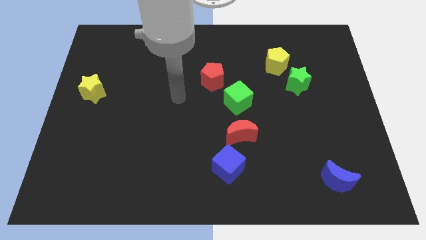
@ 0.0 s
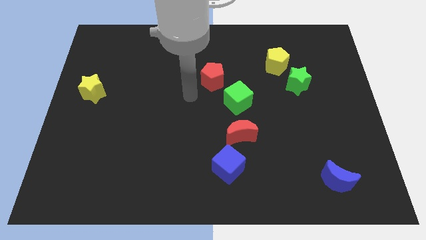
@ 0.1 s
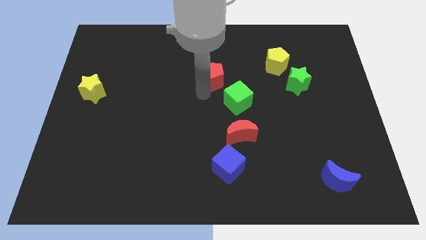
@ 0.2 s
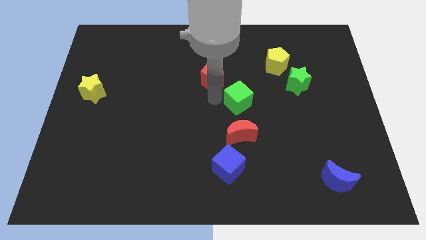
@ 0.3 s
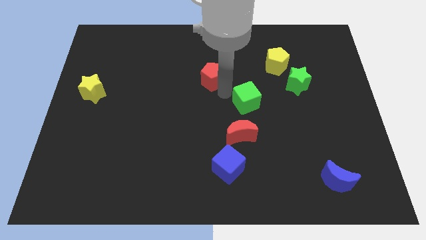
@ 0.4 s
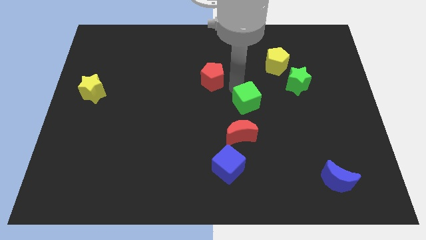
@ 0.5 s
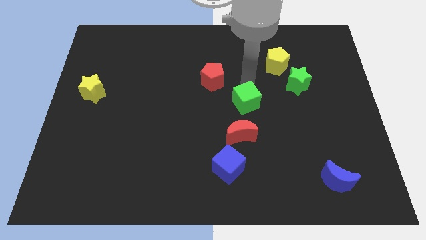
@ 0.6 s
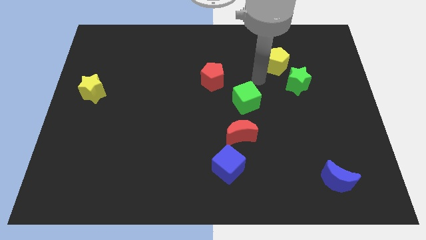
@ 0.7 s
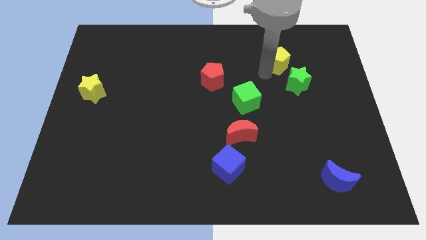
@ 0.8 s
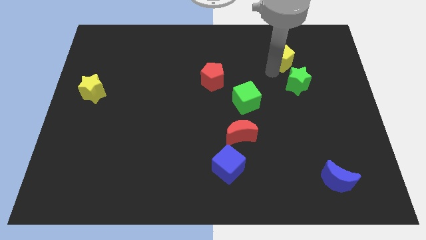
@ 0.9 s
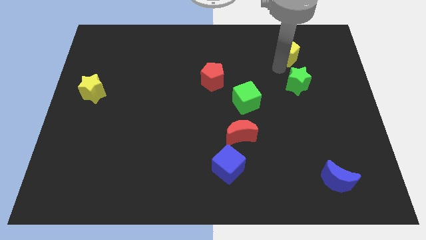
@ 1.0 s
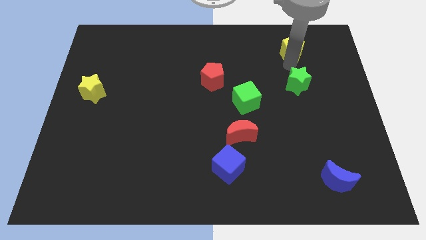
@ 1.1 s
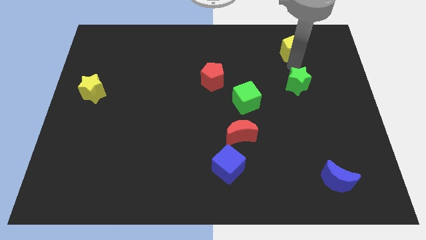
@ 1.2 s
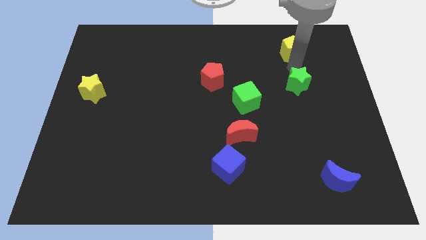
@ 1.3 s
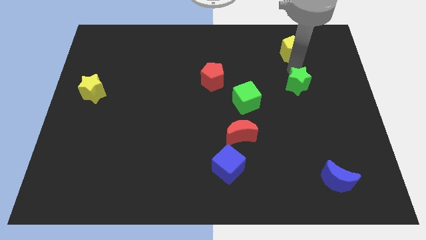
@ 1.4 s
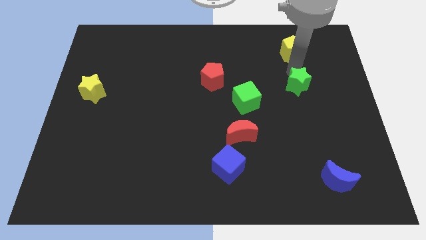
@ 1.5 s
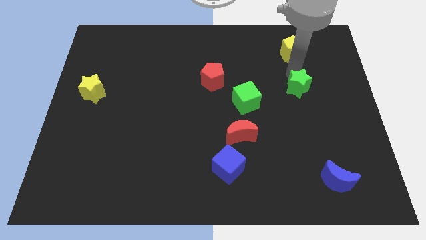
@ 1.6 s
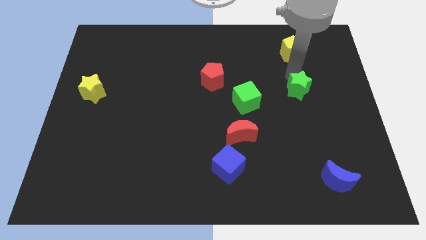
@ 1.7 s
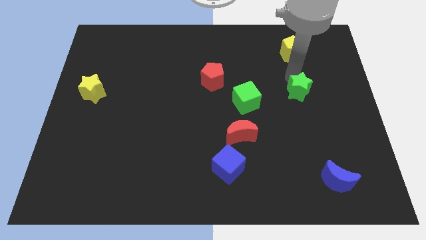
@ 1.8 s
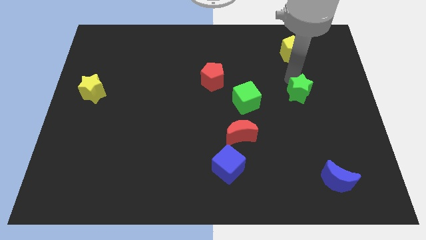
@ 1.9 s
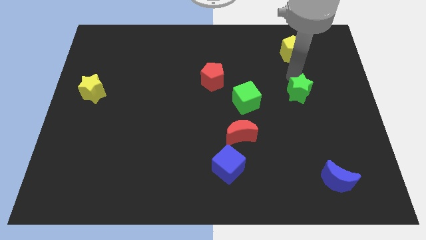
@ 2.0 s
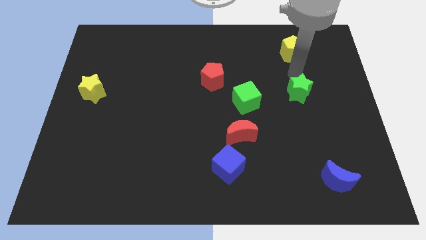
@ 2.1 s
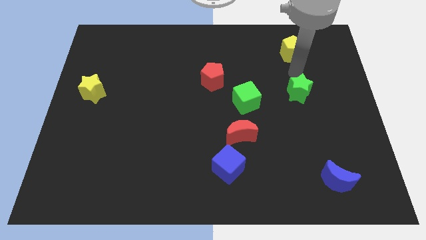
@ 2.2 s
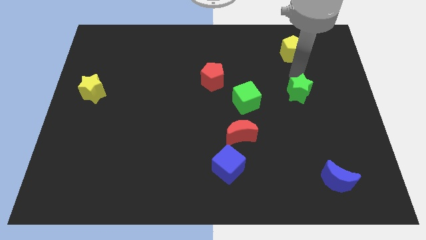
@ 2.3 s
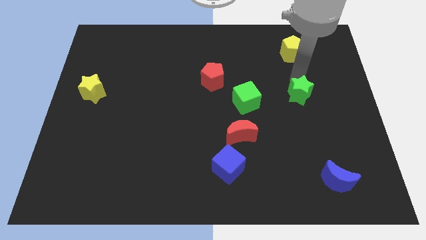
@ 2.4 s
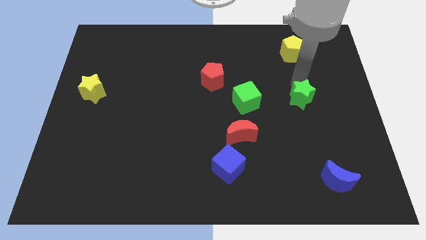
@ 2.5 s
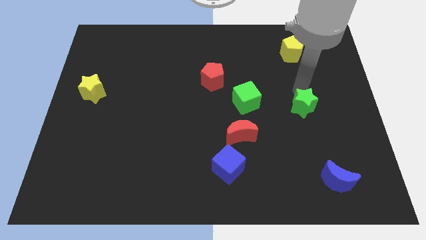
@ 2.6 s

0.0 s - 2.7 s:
slide the green star a little bit down

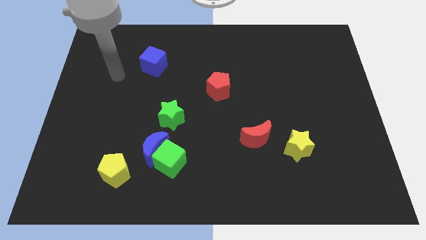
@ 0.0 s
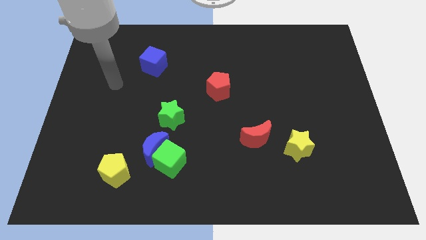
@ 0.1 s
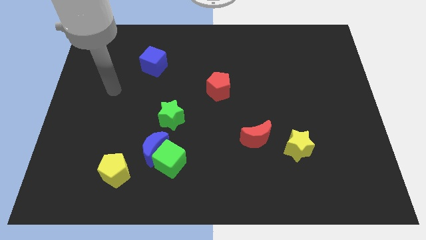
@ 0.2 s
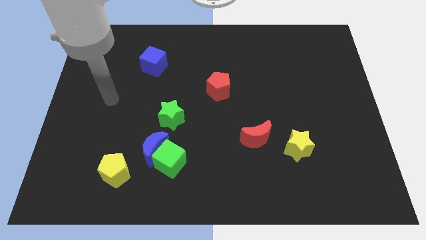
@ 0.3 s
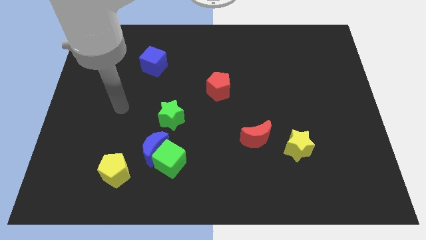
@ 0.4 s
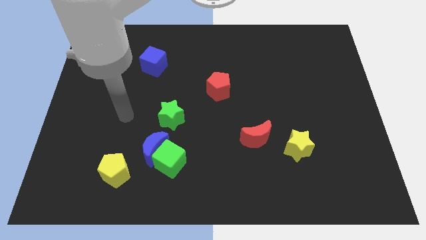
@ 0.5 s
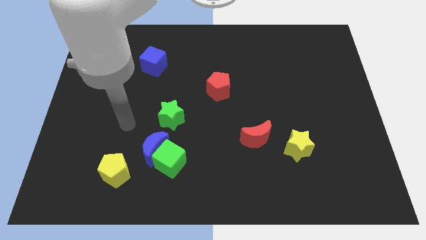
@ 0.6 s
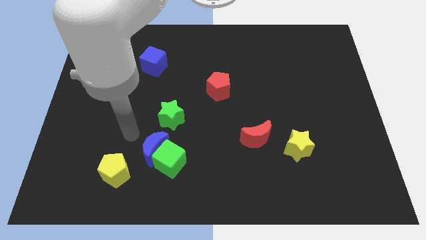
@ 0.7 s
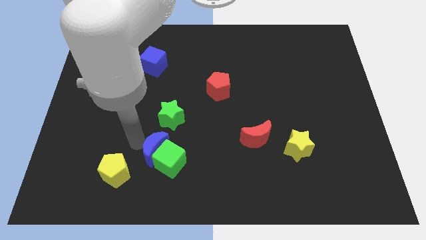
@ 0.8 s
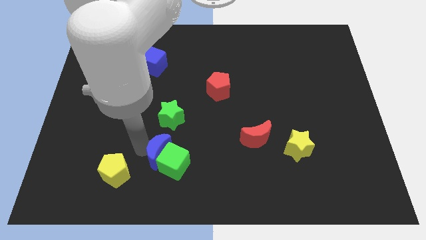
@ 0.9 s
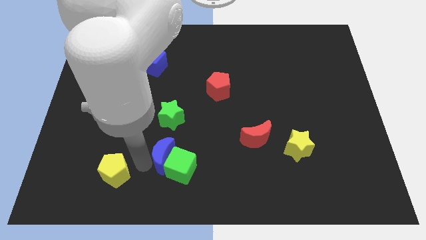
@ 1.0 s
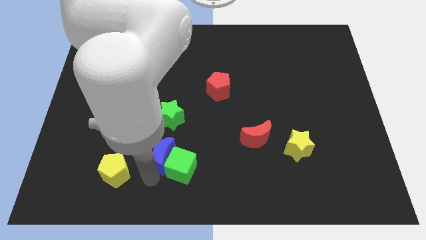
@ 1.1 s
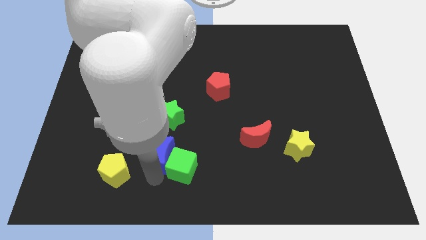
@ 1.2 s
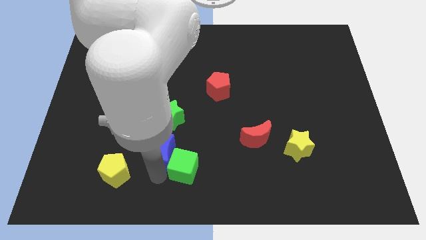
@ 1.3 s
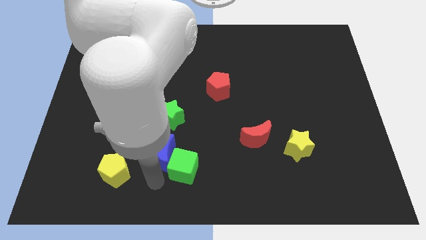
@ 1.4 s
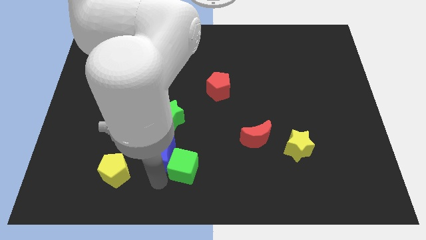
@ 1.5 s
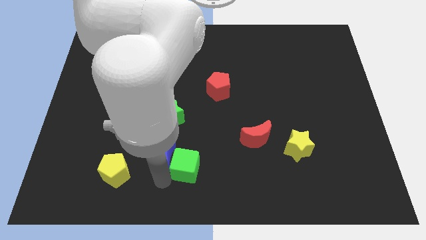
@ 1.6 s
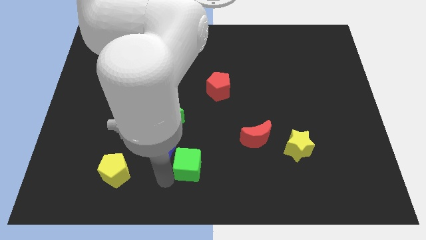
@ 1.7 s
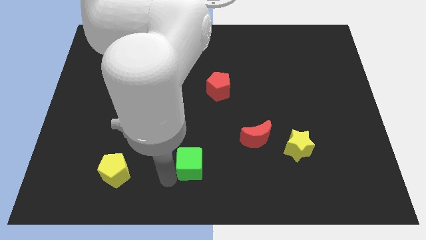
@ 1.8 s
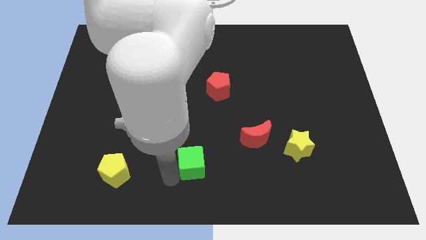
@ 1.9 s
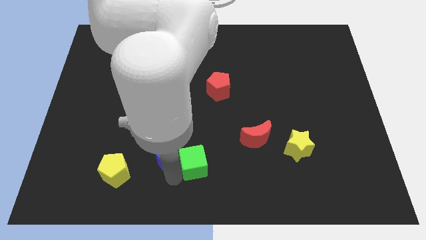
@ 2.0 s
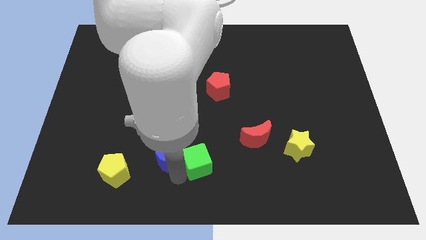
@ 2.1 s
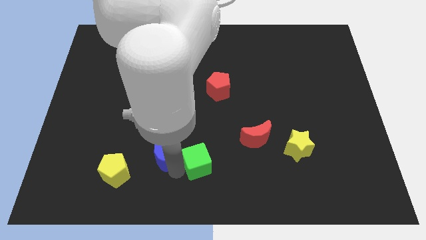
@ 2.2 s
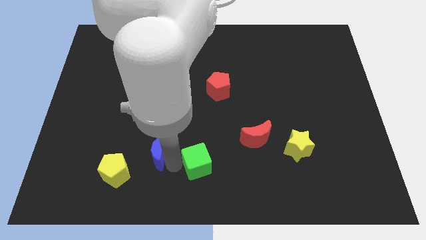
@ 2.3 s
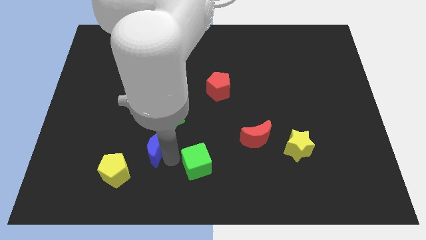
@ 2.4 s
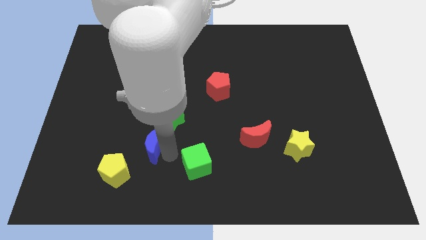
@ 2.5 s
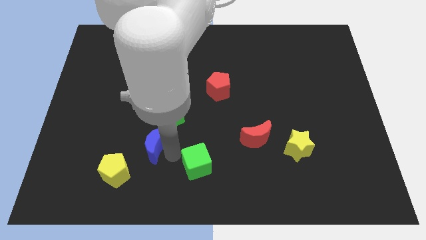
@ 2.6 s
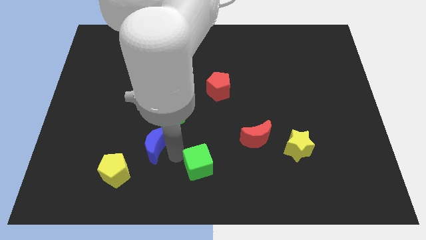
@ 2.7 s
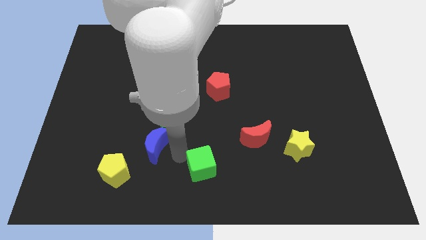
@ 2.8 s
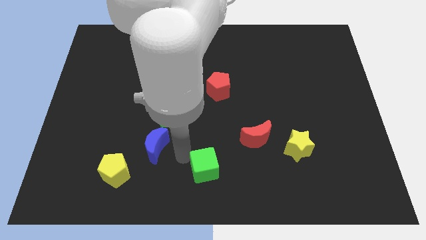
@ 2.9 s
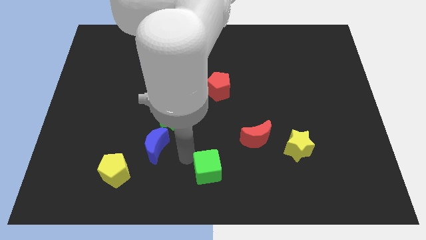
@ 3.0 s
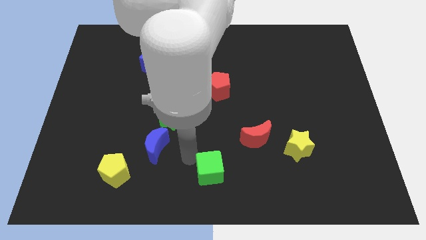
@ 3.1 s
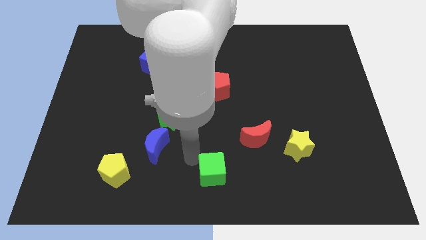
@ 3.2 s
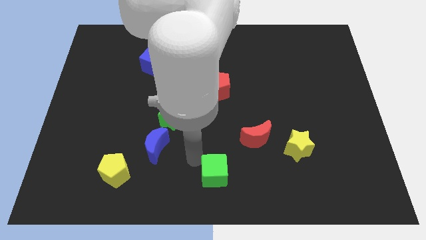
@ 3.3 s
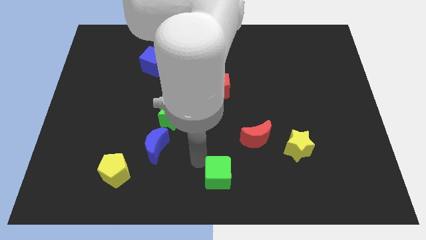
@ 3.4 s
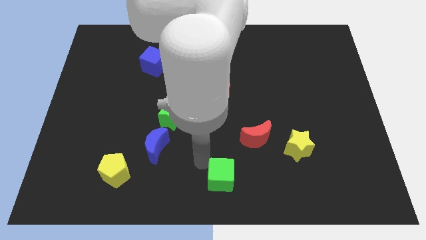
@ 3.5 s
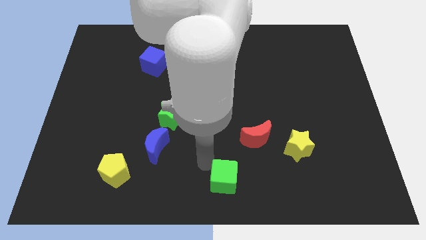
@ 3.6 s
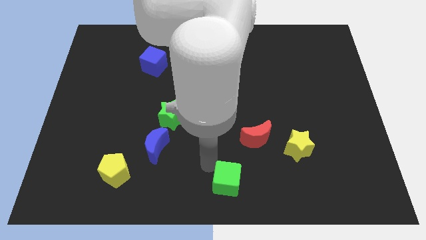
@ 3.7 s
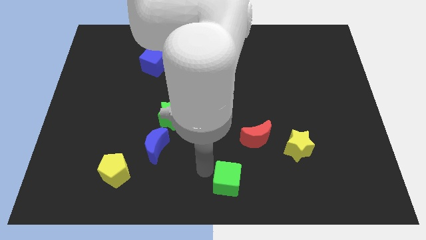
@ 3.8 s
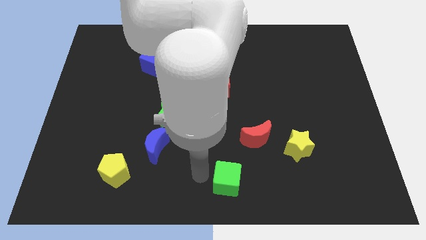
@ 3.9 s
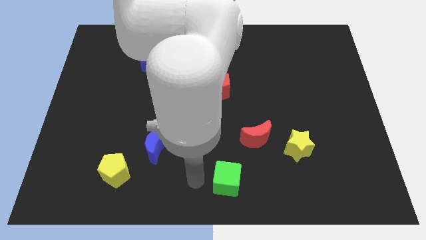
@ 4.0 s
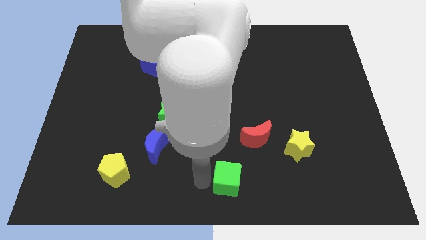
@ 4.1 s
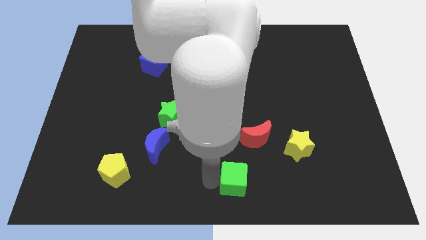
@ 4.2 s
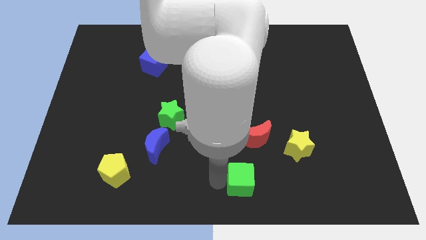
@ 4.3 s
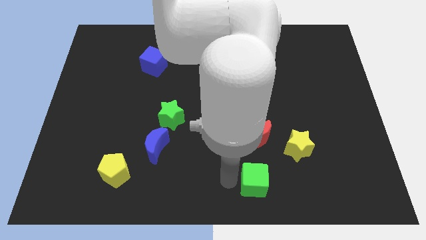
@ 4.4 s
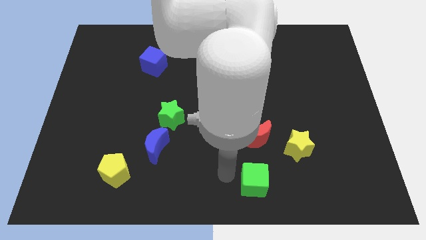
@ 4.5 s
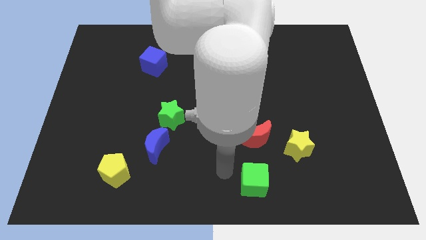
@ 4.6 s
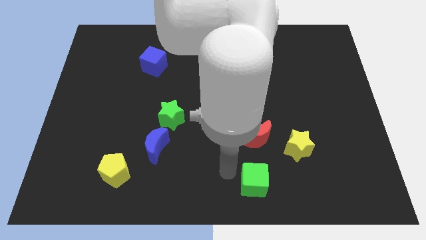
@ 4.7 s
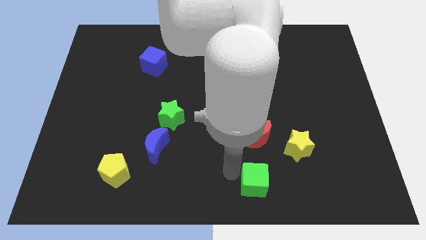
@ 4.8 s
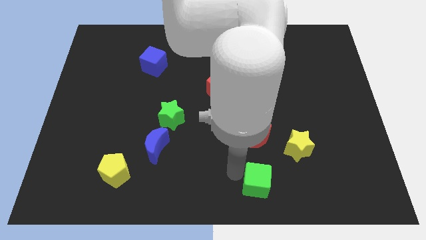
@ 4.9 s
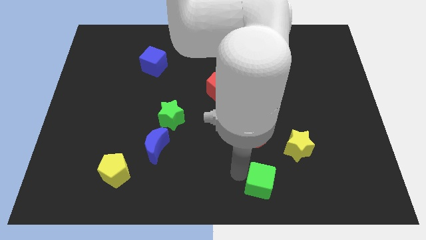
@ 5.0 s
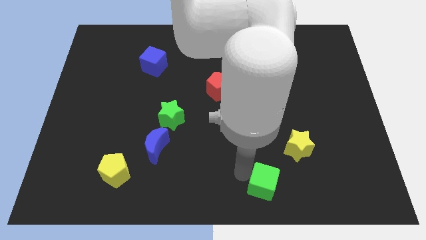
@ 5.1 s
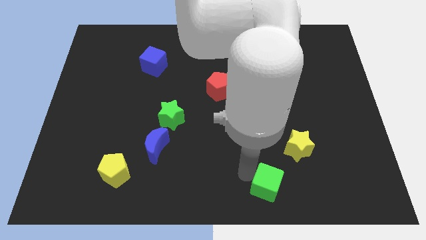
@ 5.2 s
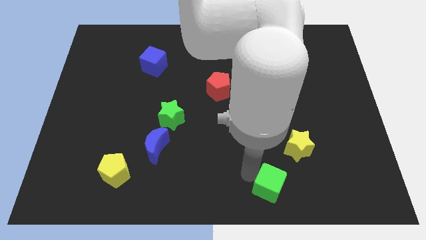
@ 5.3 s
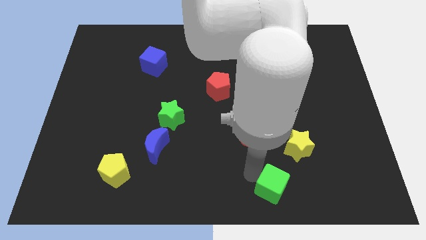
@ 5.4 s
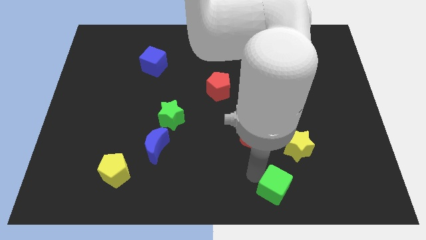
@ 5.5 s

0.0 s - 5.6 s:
slide the green cube right
